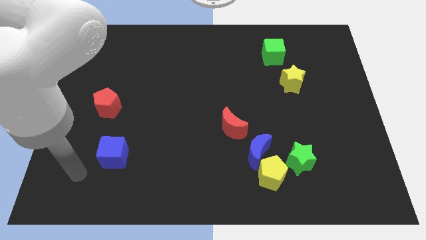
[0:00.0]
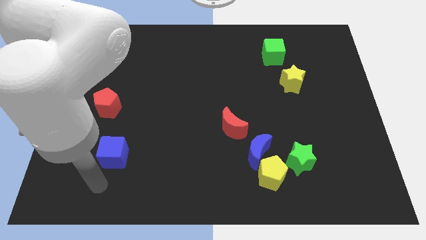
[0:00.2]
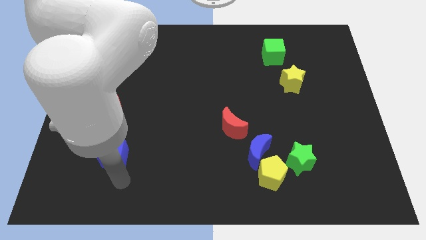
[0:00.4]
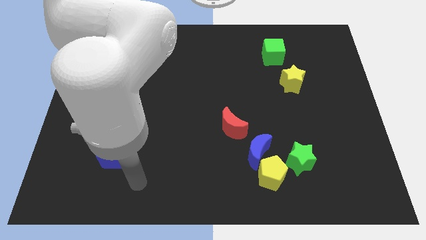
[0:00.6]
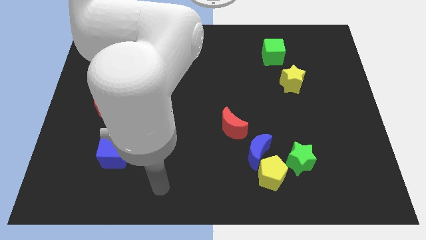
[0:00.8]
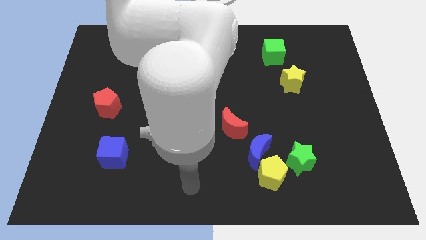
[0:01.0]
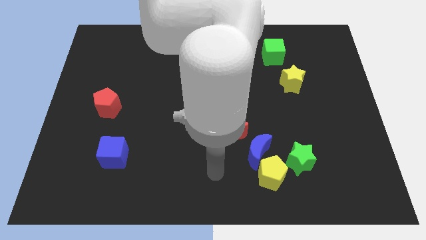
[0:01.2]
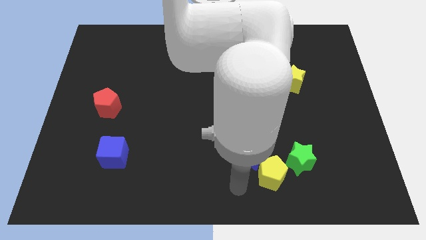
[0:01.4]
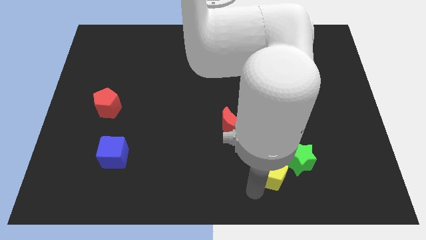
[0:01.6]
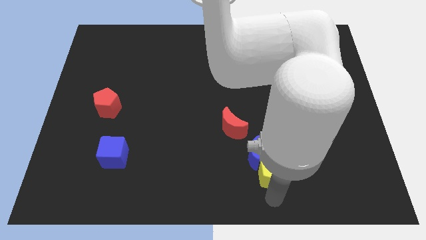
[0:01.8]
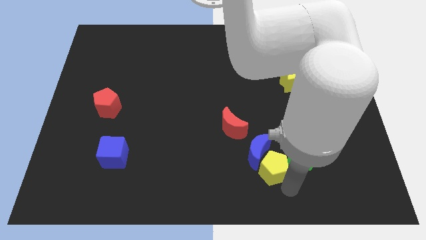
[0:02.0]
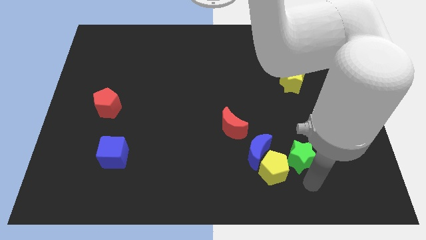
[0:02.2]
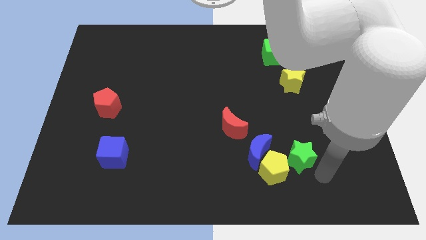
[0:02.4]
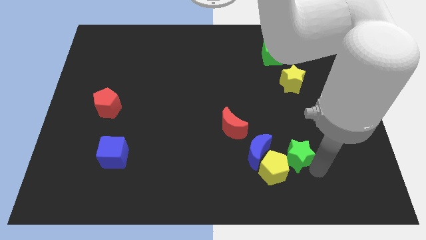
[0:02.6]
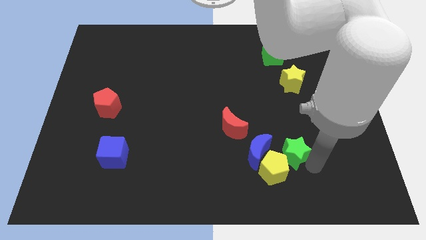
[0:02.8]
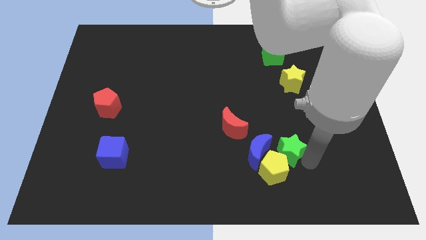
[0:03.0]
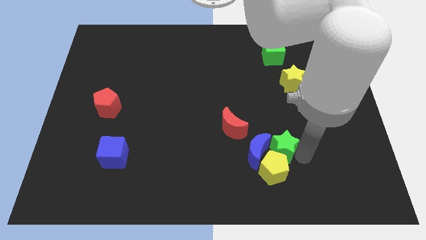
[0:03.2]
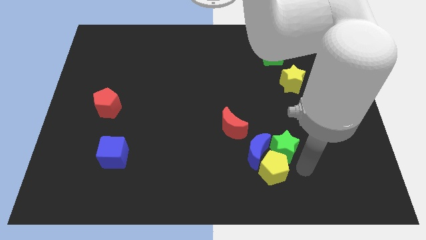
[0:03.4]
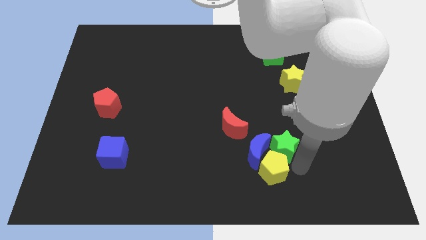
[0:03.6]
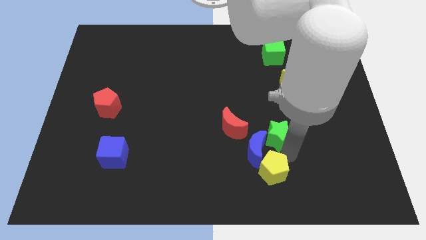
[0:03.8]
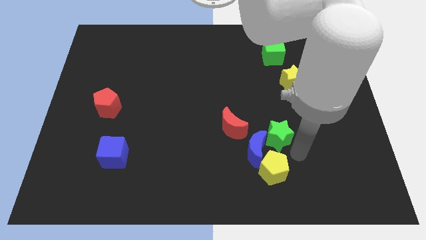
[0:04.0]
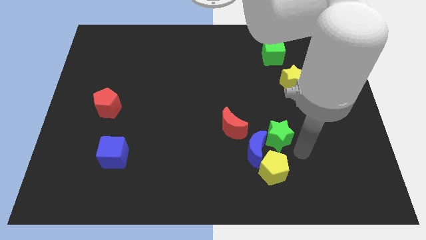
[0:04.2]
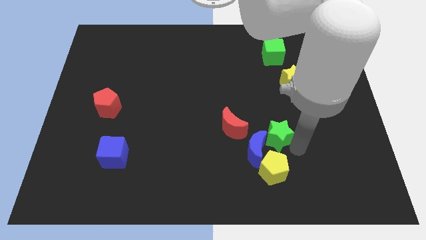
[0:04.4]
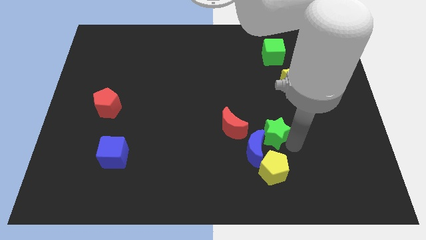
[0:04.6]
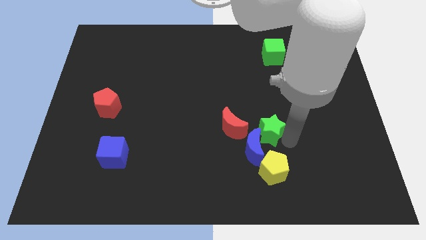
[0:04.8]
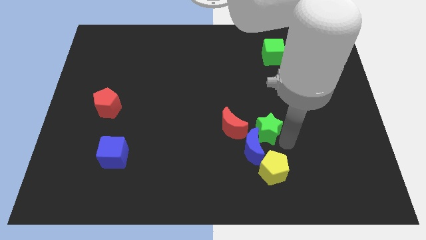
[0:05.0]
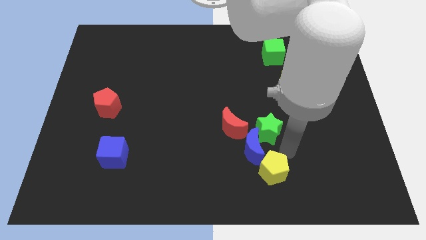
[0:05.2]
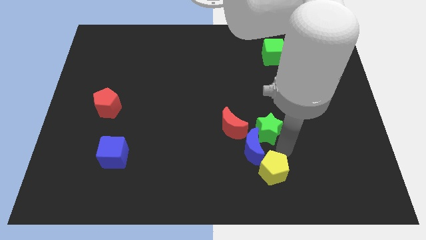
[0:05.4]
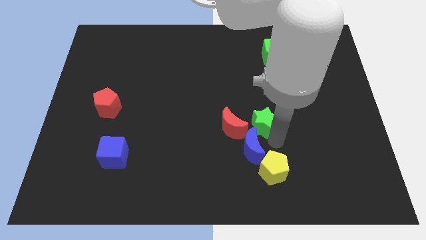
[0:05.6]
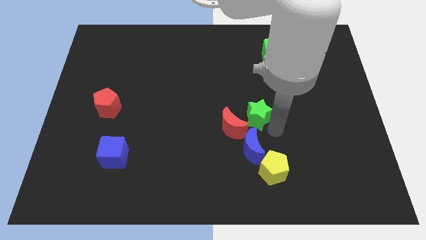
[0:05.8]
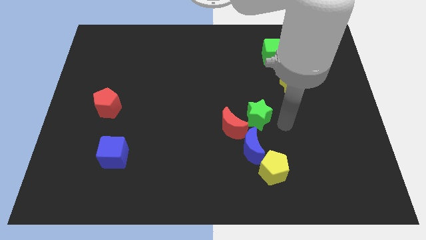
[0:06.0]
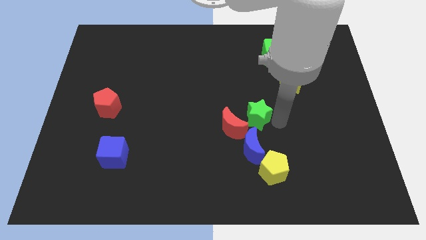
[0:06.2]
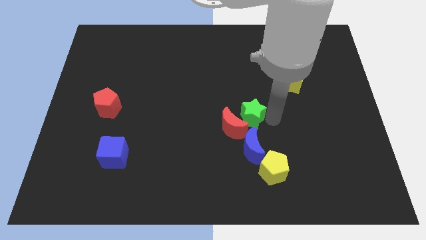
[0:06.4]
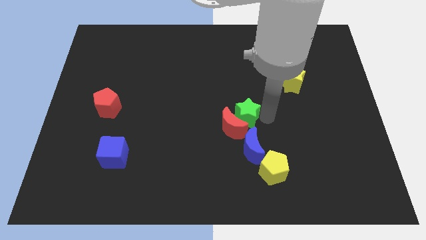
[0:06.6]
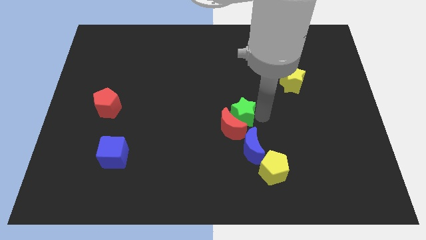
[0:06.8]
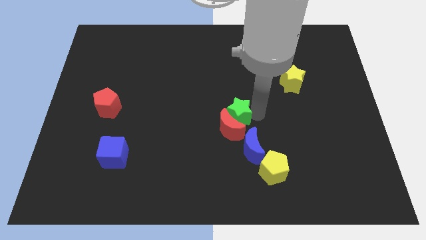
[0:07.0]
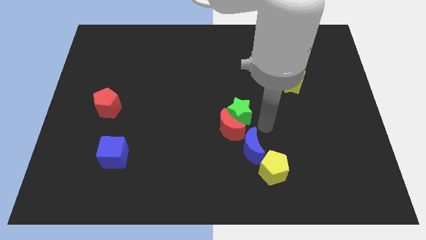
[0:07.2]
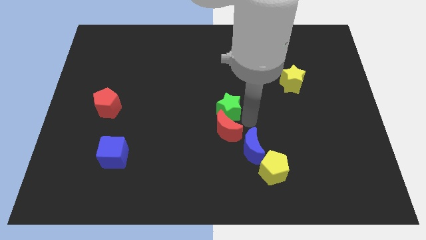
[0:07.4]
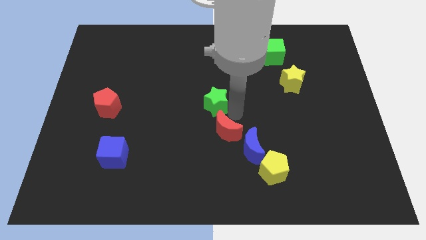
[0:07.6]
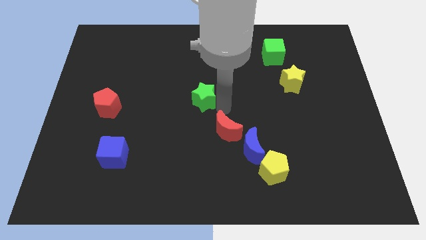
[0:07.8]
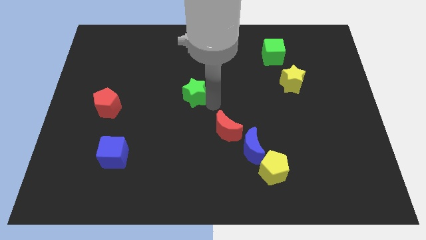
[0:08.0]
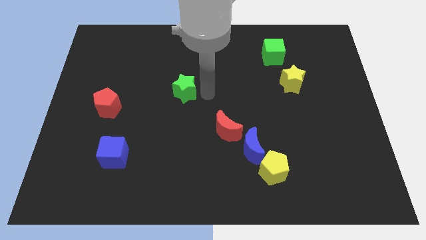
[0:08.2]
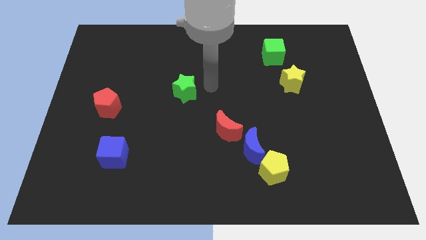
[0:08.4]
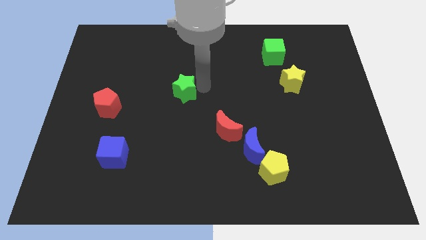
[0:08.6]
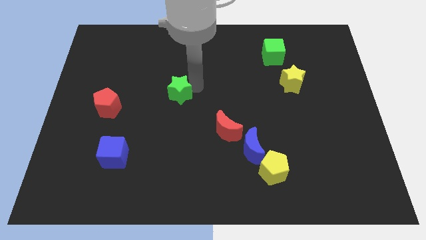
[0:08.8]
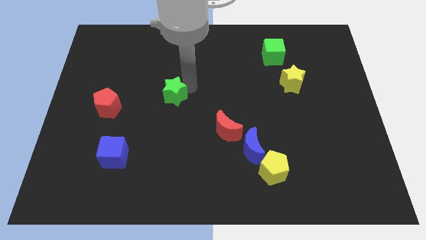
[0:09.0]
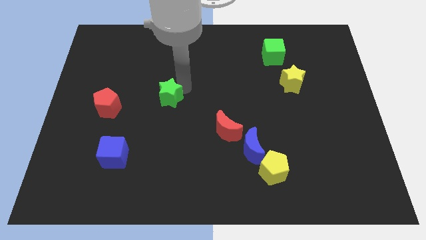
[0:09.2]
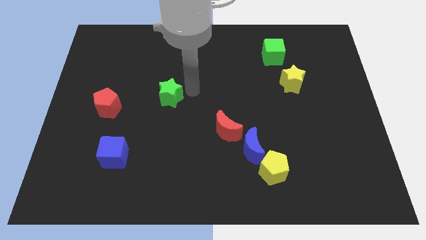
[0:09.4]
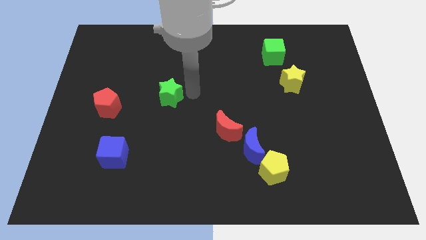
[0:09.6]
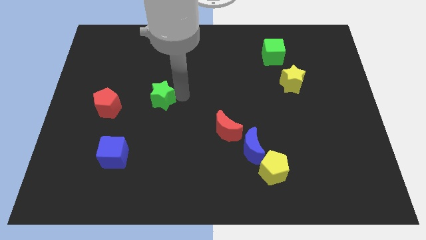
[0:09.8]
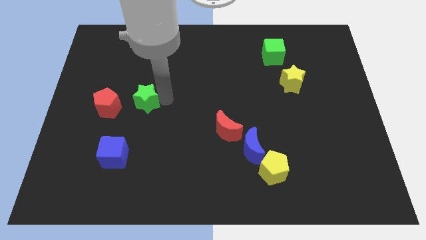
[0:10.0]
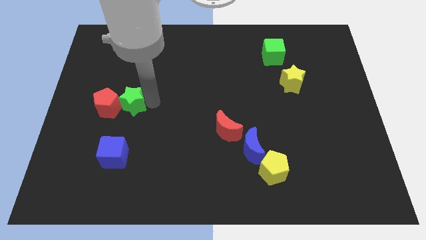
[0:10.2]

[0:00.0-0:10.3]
slide the green star close to the red pentagon

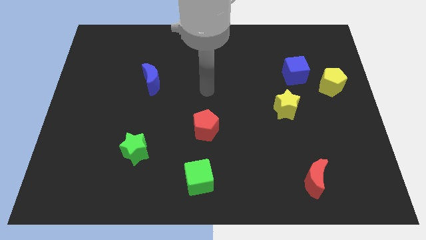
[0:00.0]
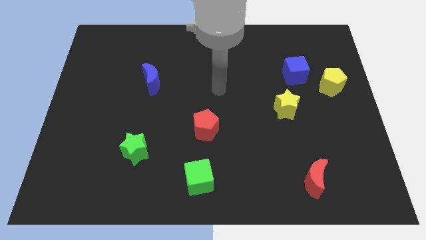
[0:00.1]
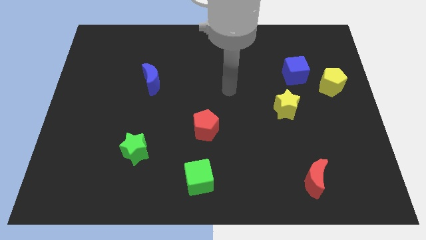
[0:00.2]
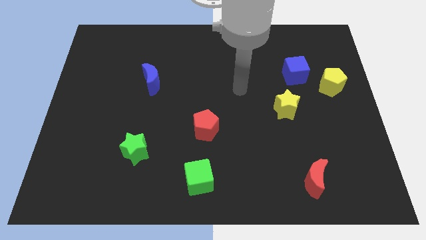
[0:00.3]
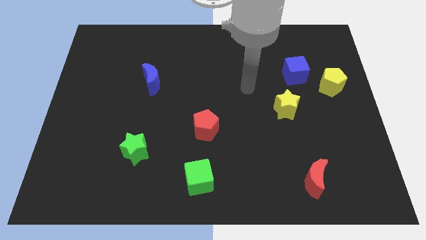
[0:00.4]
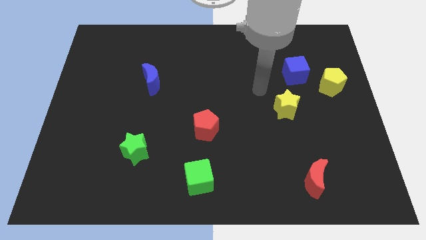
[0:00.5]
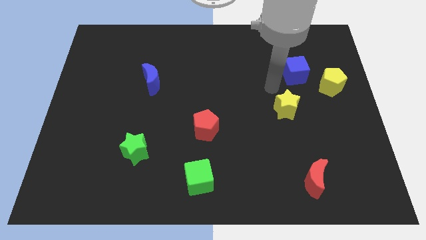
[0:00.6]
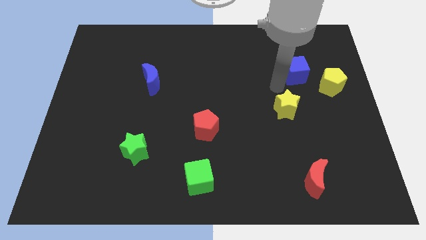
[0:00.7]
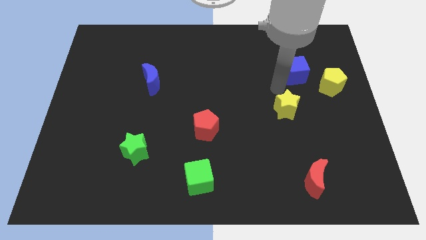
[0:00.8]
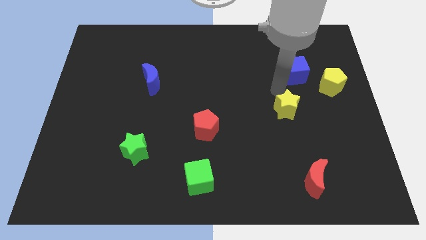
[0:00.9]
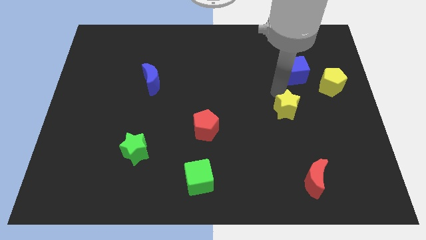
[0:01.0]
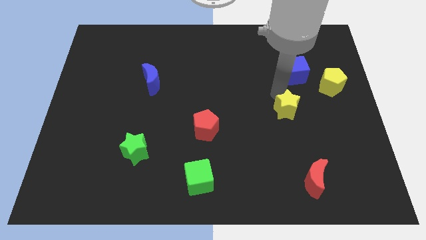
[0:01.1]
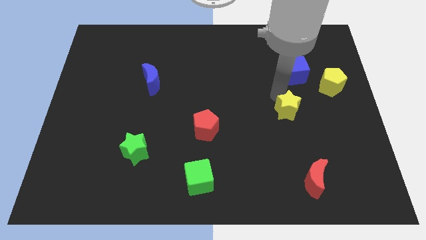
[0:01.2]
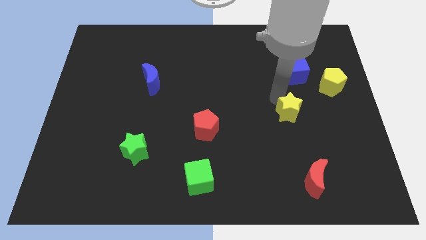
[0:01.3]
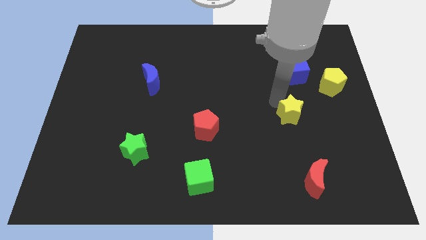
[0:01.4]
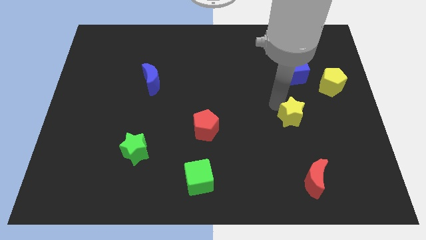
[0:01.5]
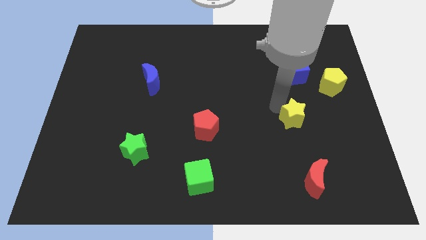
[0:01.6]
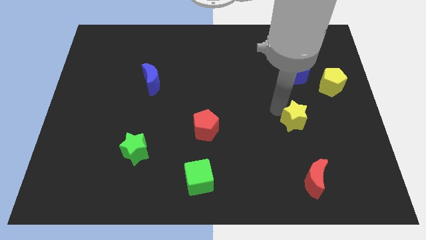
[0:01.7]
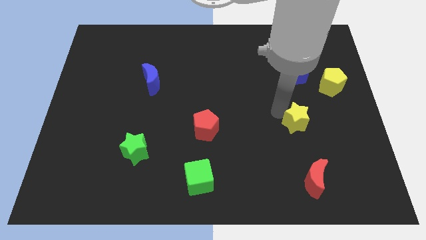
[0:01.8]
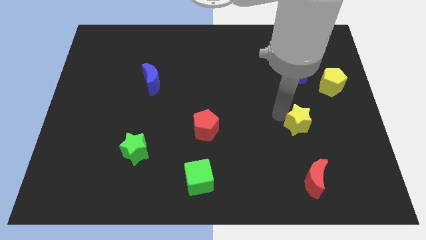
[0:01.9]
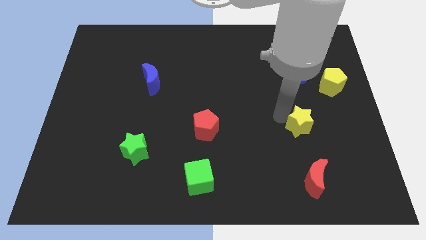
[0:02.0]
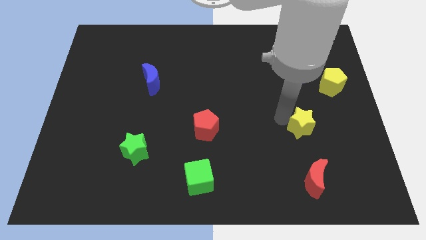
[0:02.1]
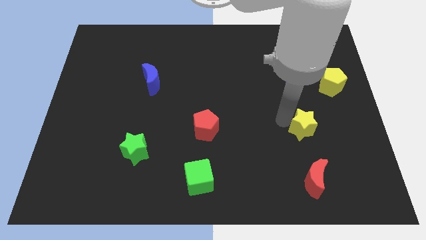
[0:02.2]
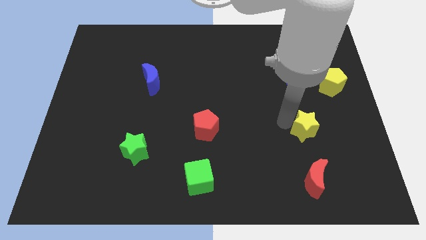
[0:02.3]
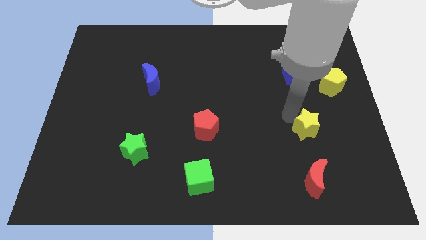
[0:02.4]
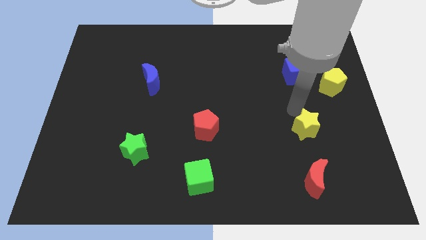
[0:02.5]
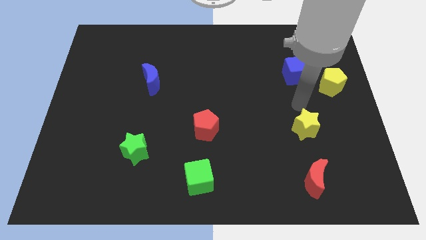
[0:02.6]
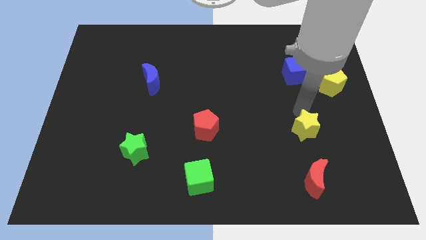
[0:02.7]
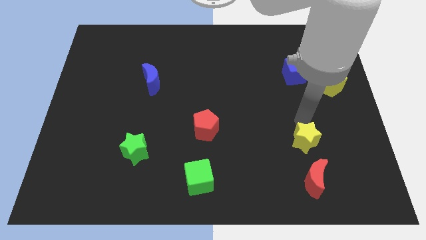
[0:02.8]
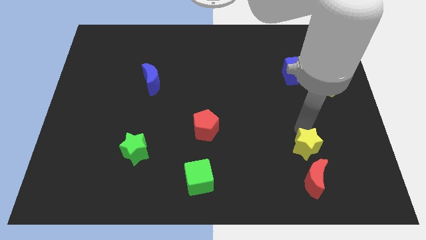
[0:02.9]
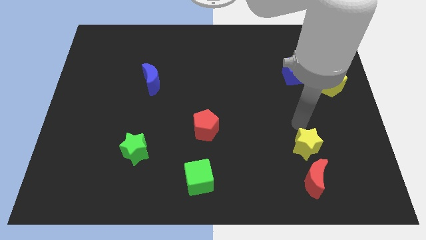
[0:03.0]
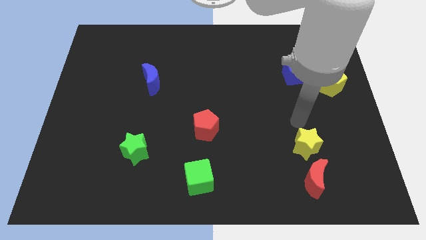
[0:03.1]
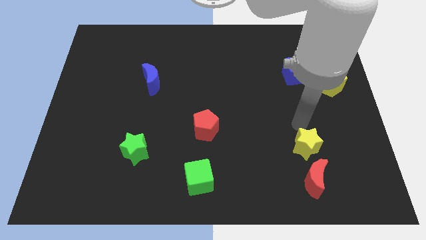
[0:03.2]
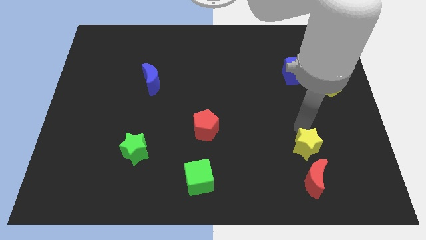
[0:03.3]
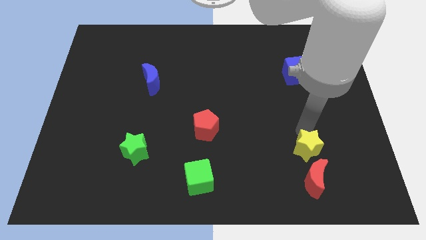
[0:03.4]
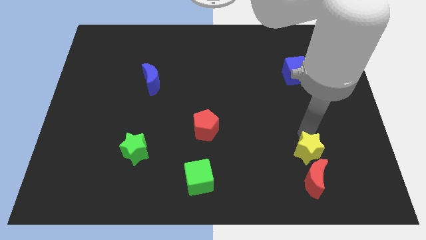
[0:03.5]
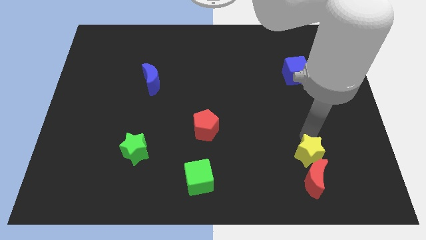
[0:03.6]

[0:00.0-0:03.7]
push the yellow star towards the red moon
